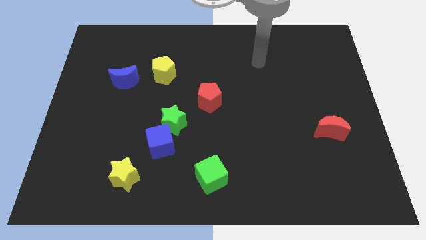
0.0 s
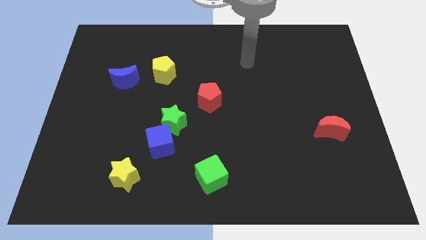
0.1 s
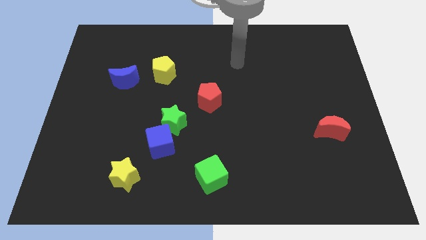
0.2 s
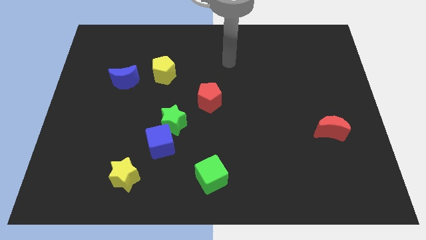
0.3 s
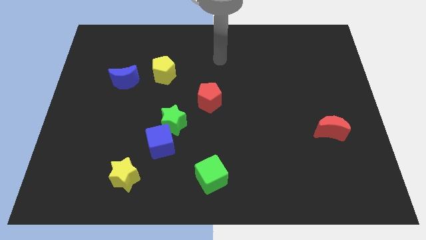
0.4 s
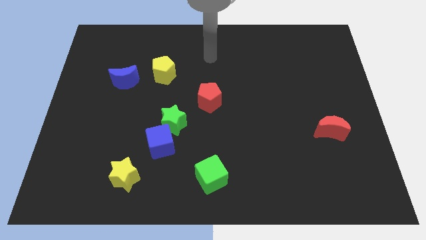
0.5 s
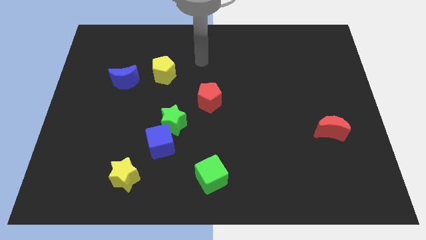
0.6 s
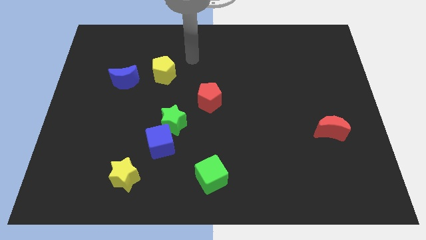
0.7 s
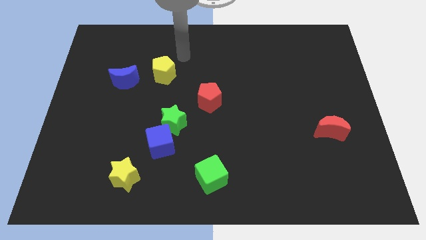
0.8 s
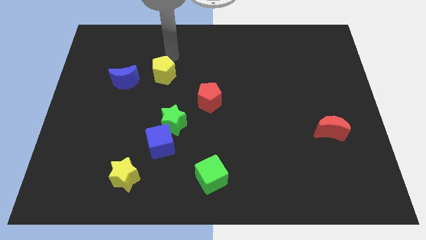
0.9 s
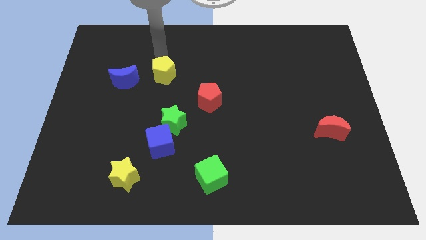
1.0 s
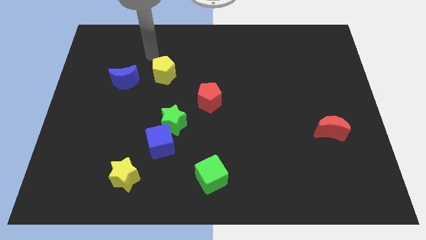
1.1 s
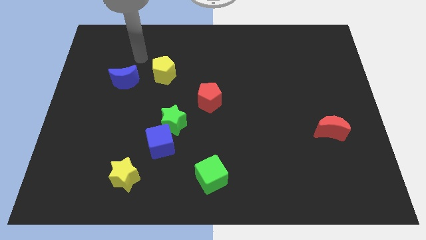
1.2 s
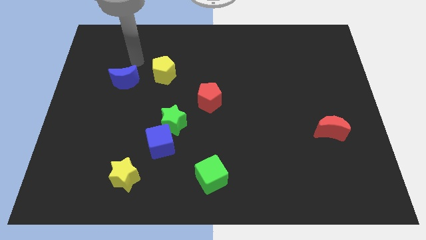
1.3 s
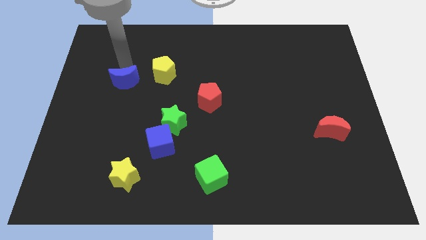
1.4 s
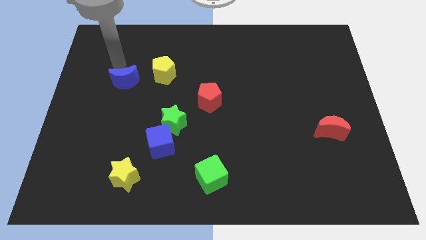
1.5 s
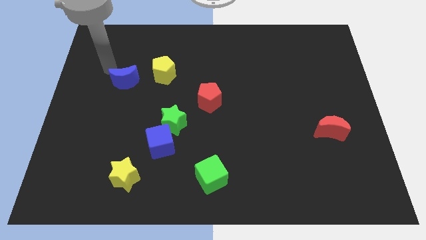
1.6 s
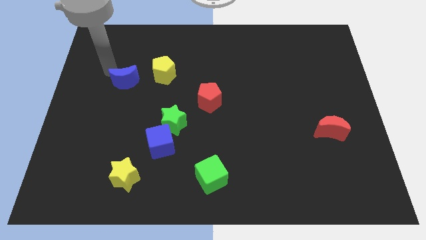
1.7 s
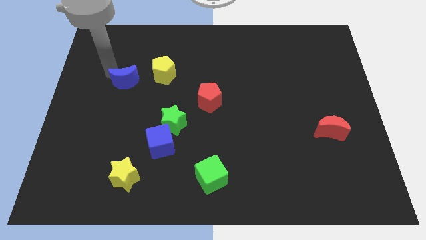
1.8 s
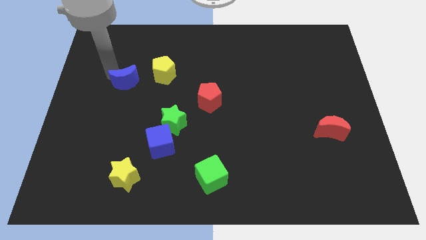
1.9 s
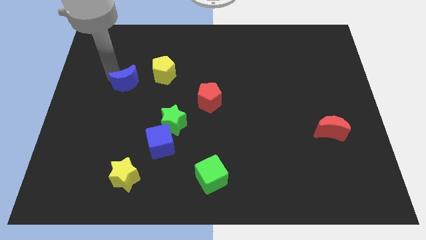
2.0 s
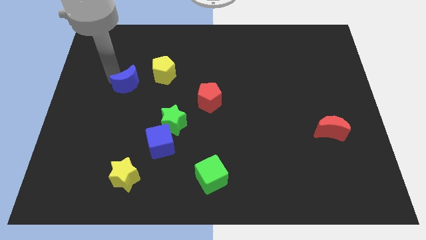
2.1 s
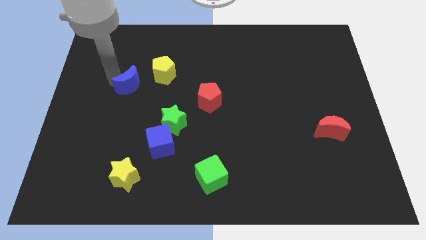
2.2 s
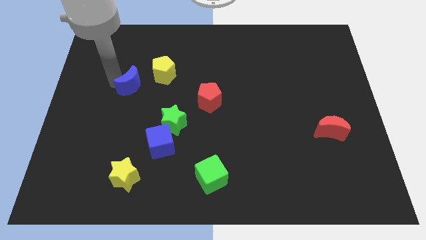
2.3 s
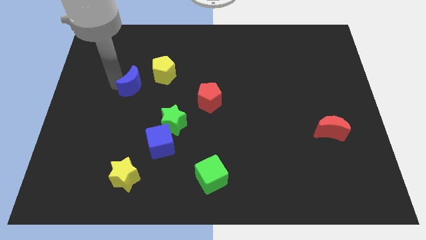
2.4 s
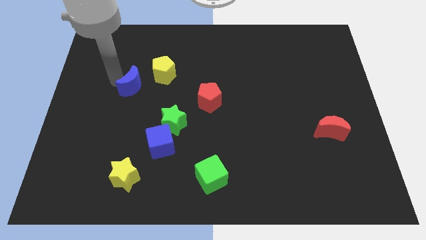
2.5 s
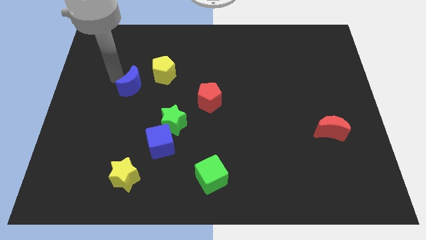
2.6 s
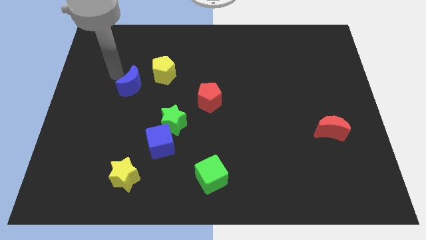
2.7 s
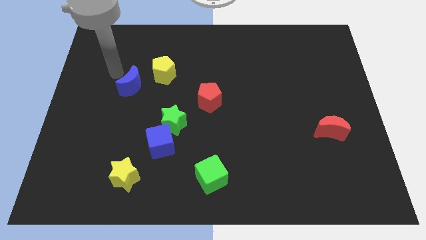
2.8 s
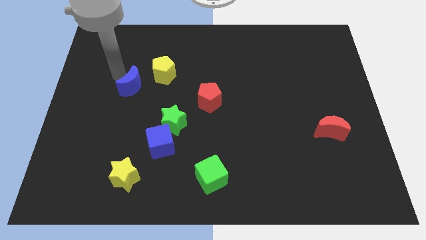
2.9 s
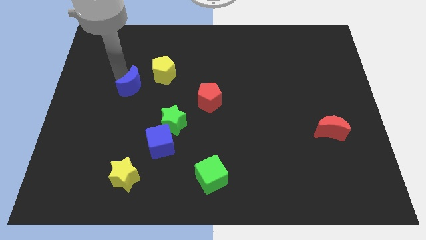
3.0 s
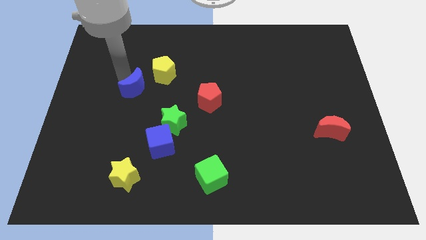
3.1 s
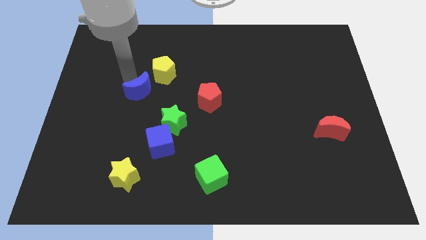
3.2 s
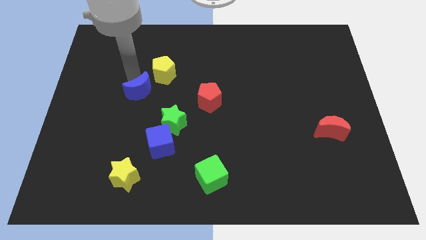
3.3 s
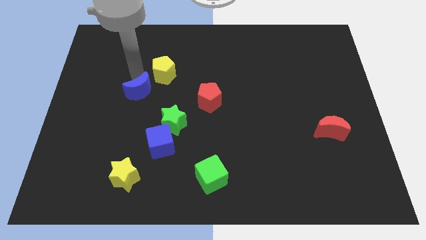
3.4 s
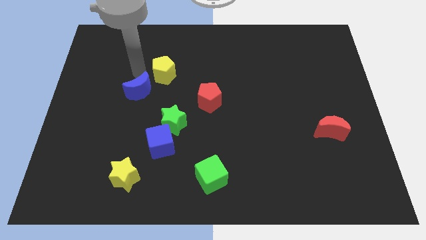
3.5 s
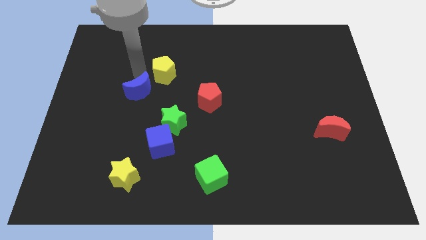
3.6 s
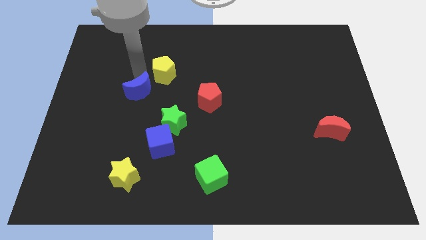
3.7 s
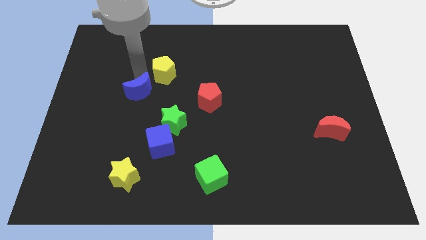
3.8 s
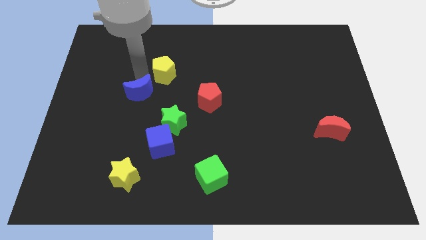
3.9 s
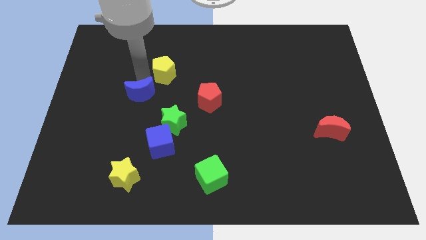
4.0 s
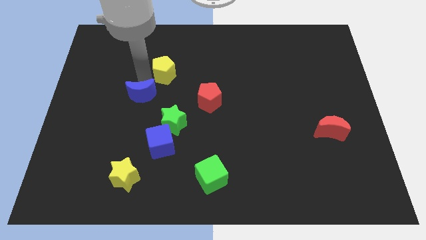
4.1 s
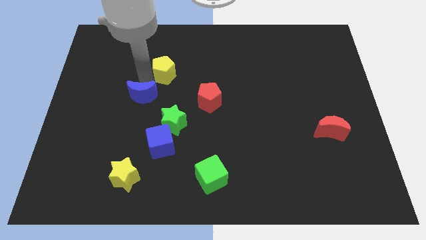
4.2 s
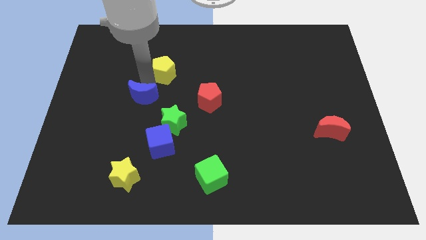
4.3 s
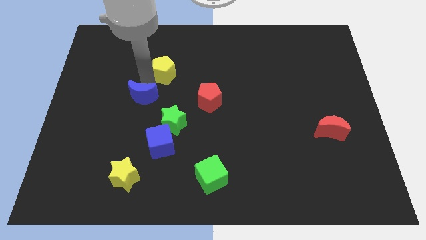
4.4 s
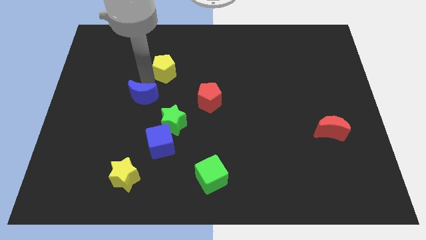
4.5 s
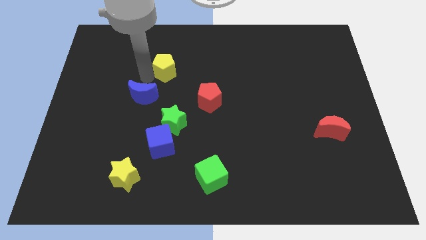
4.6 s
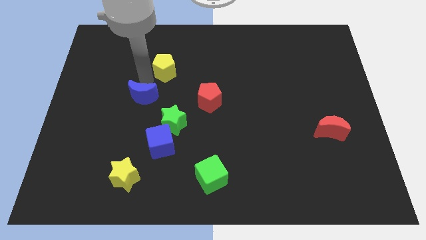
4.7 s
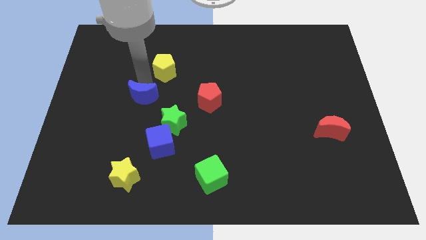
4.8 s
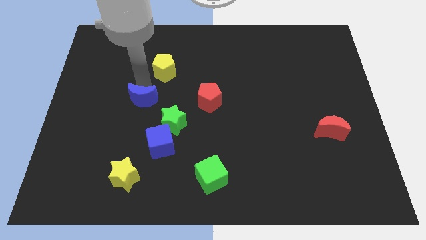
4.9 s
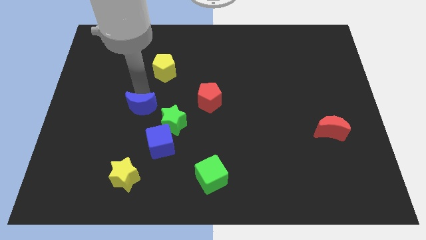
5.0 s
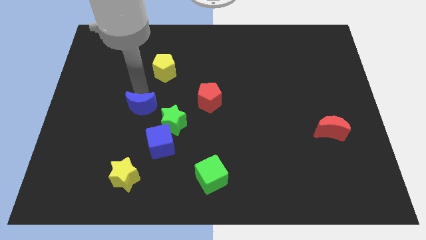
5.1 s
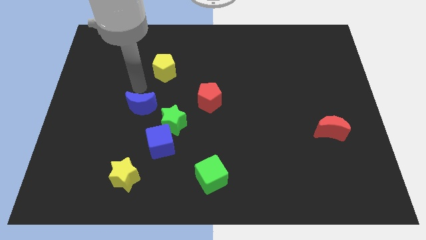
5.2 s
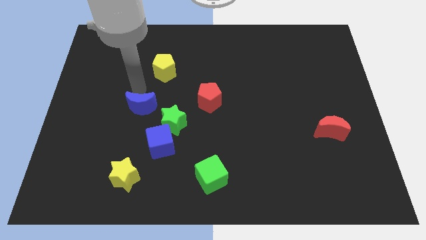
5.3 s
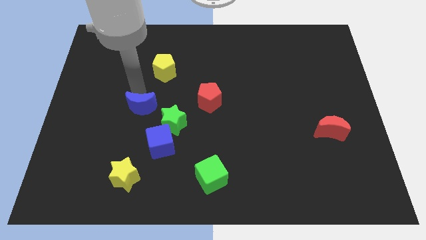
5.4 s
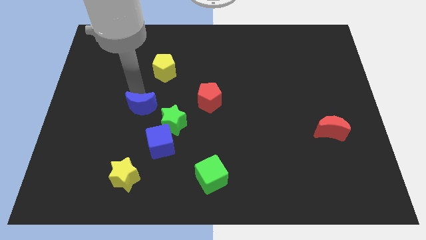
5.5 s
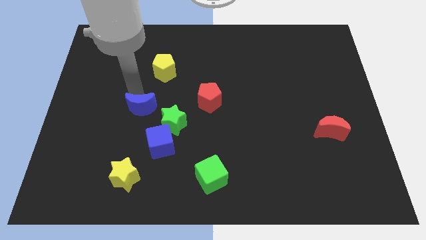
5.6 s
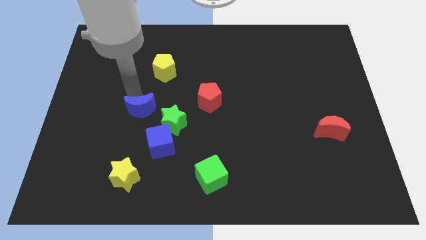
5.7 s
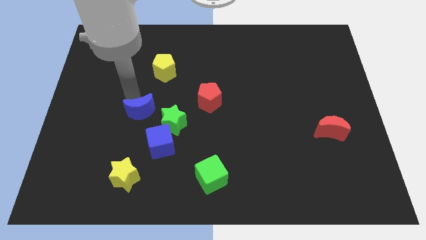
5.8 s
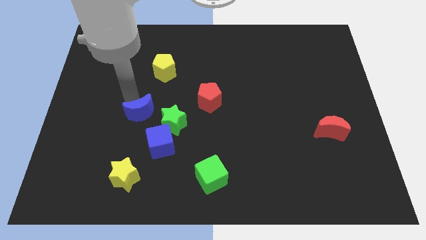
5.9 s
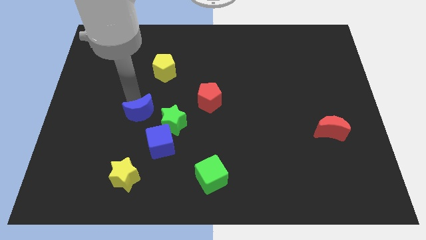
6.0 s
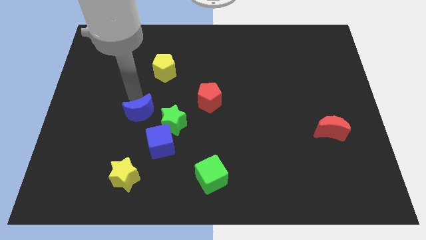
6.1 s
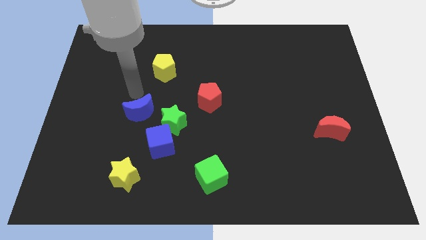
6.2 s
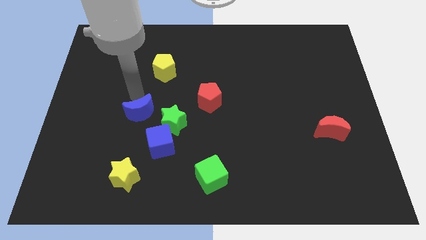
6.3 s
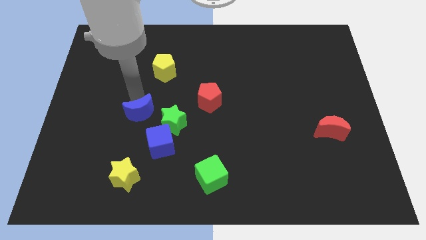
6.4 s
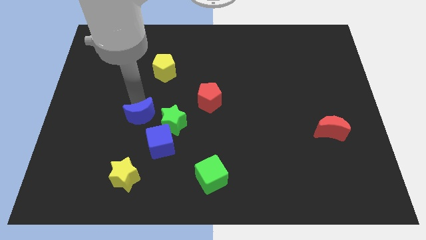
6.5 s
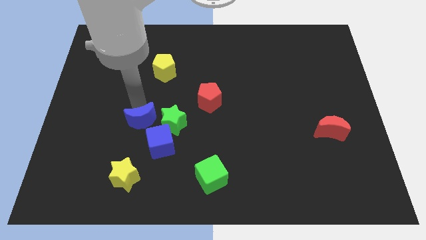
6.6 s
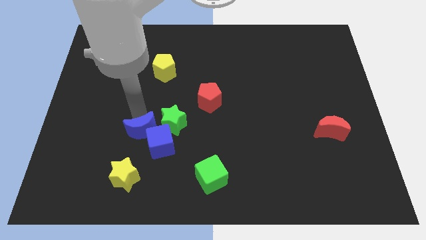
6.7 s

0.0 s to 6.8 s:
put the blue moon towards the blue cube

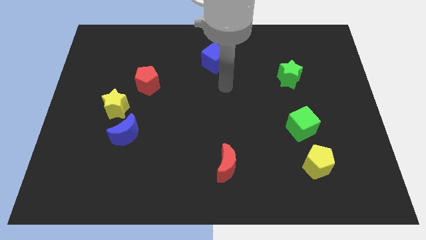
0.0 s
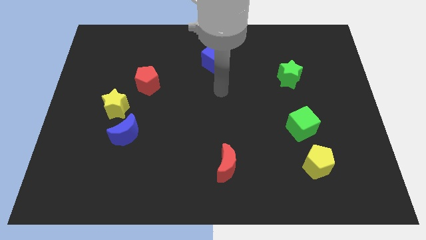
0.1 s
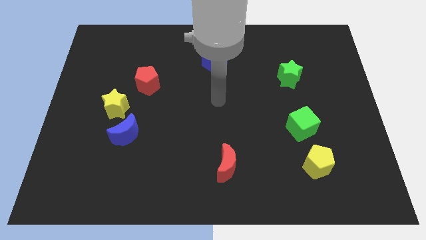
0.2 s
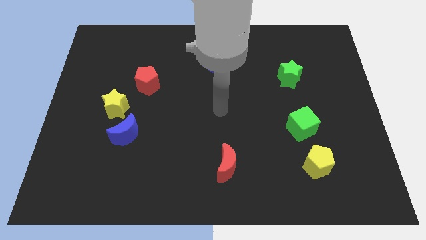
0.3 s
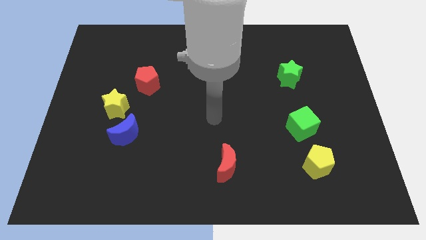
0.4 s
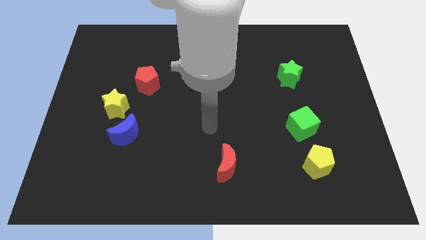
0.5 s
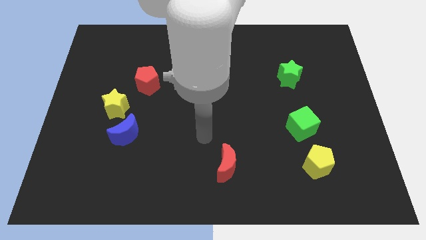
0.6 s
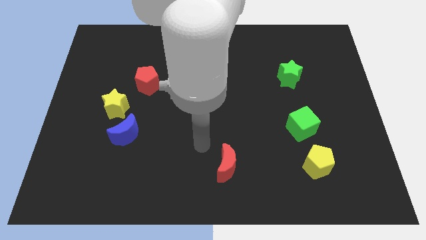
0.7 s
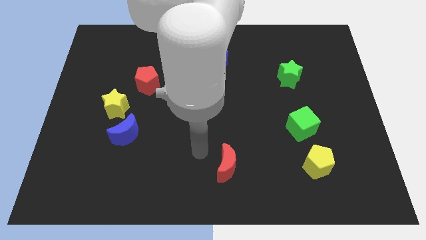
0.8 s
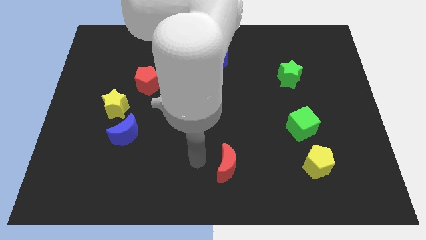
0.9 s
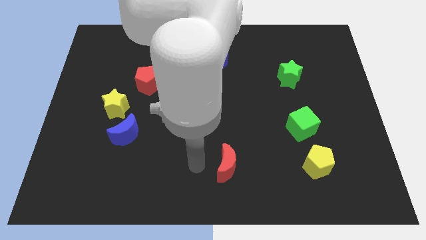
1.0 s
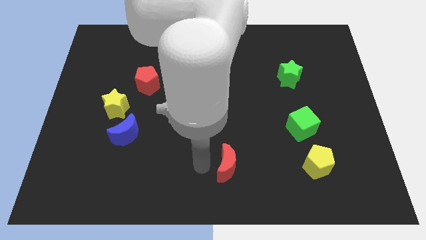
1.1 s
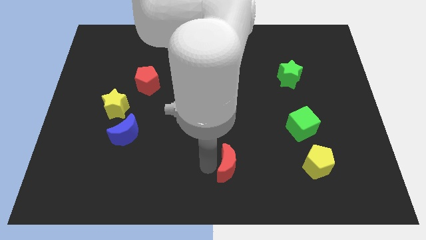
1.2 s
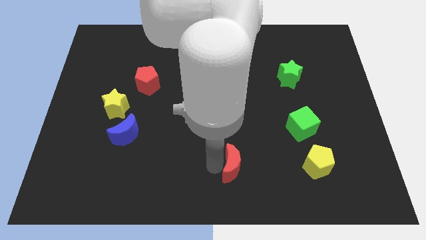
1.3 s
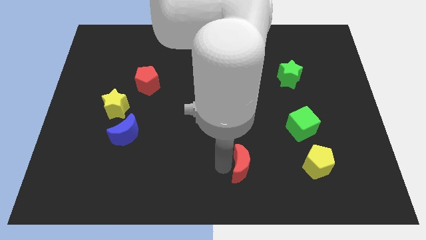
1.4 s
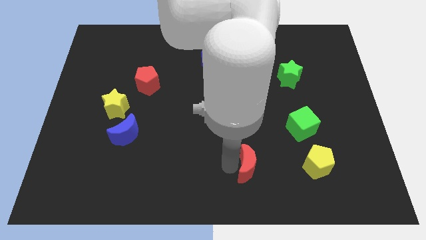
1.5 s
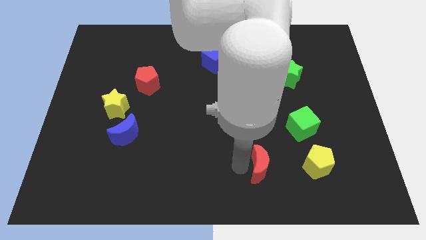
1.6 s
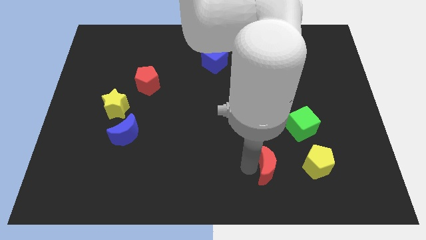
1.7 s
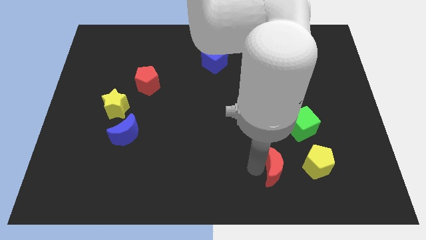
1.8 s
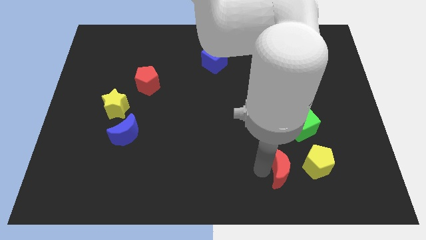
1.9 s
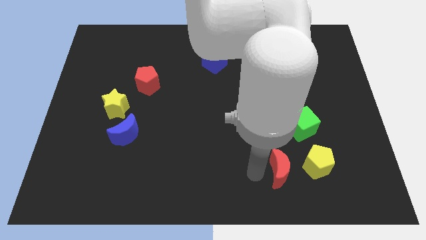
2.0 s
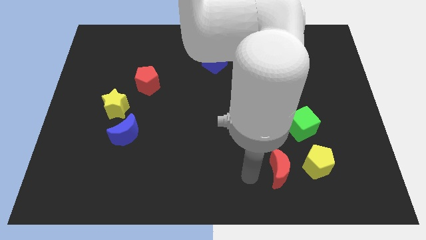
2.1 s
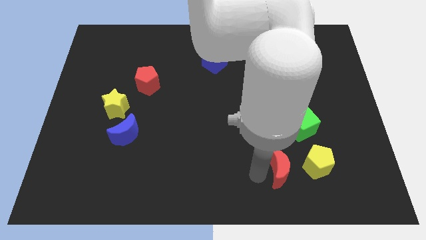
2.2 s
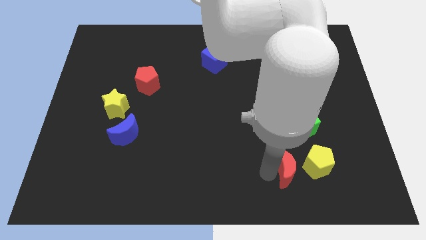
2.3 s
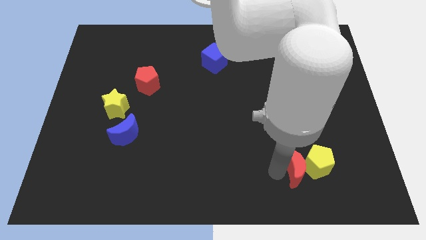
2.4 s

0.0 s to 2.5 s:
put the red moon next to the yellow pentagon
